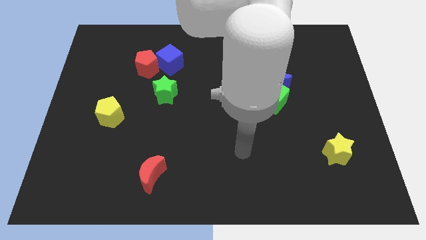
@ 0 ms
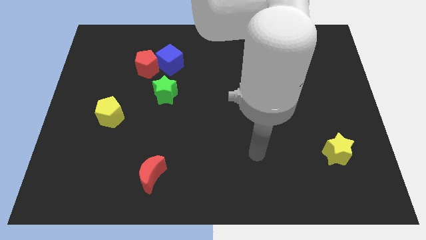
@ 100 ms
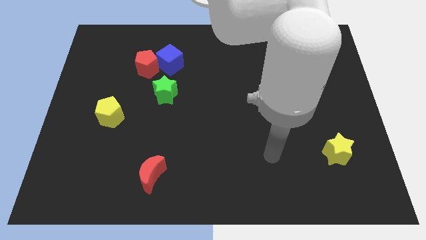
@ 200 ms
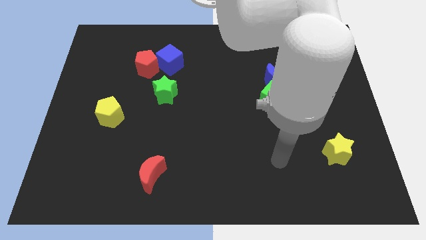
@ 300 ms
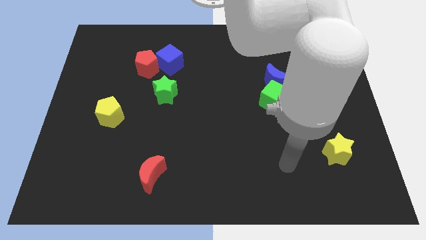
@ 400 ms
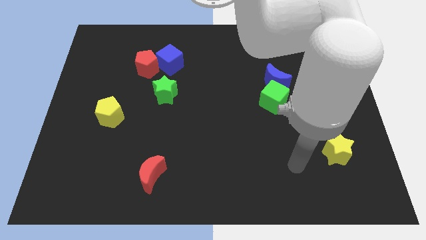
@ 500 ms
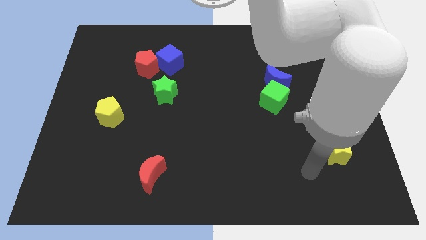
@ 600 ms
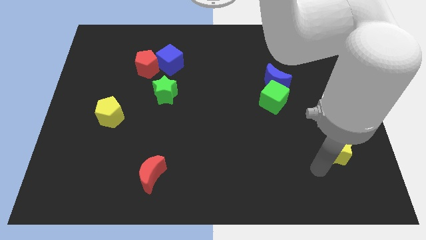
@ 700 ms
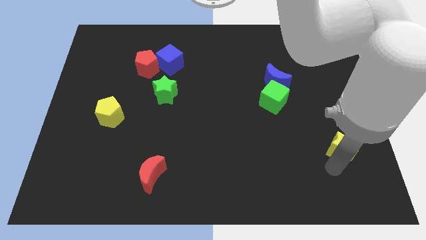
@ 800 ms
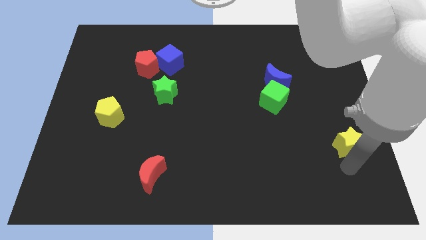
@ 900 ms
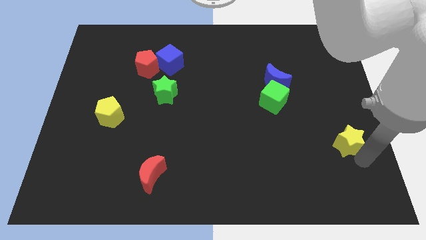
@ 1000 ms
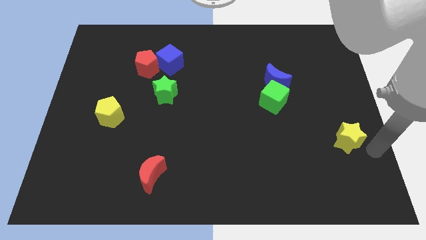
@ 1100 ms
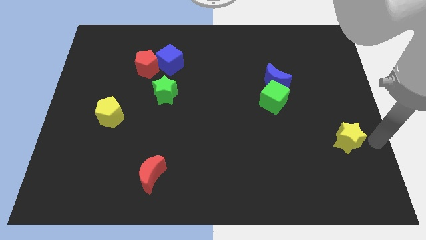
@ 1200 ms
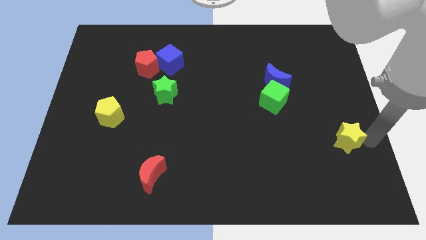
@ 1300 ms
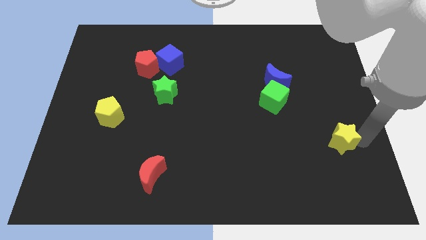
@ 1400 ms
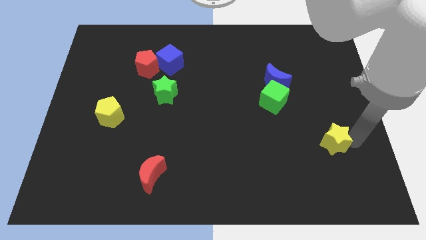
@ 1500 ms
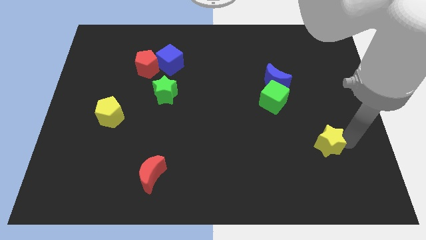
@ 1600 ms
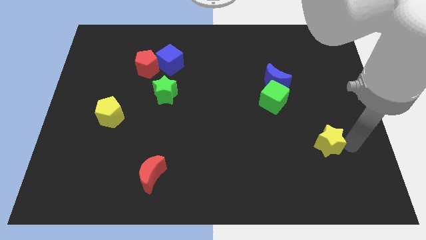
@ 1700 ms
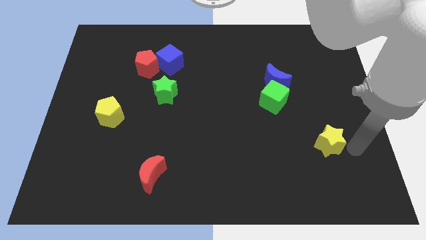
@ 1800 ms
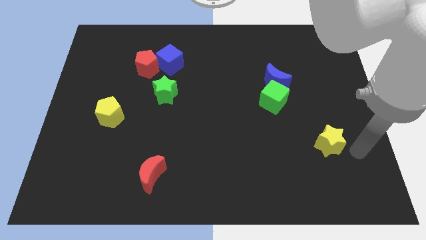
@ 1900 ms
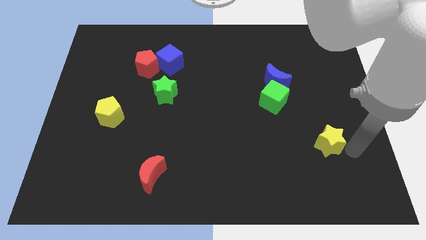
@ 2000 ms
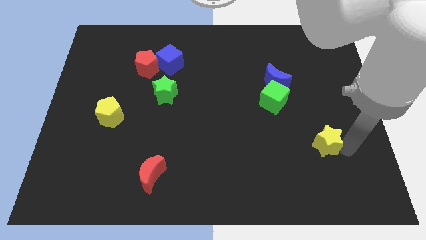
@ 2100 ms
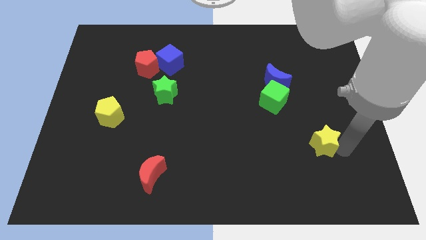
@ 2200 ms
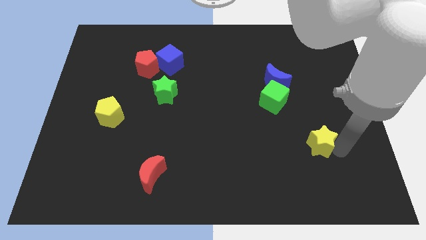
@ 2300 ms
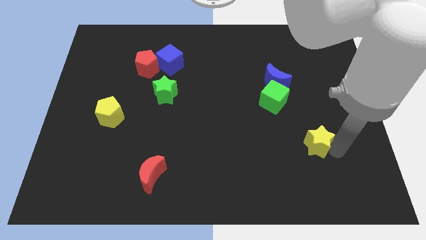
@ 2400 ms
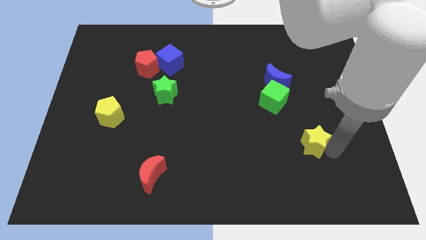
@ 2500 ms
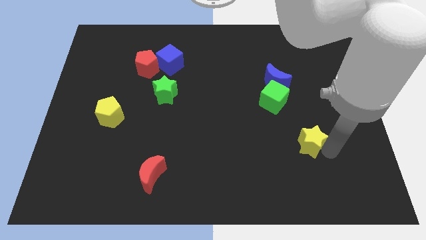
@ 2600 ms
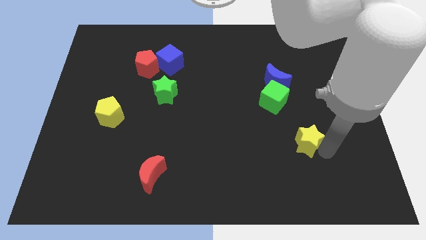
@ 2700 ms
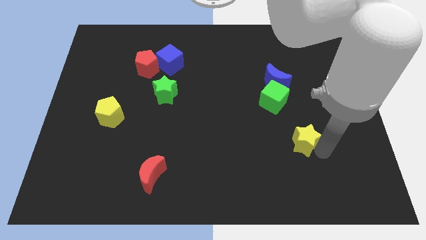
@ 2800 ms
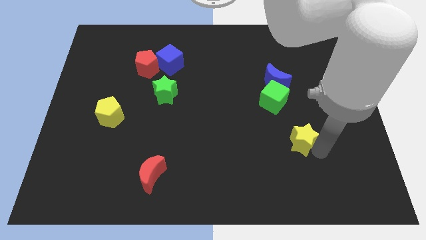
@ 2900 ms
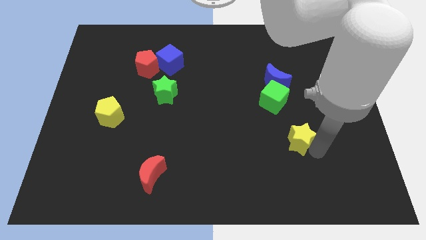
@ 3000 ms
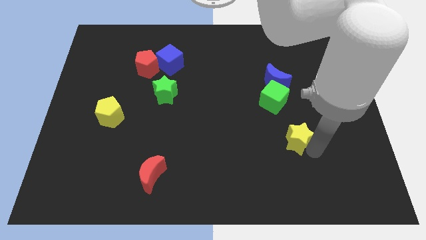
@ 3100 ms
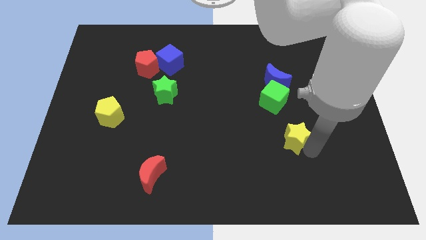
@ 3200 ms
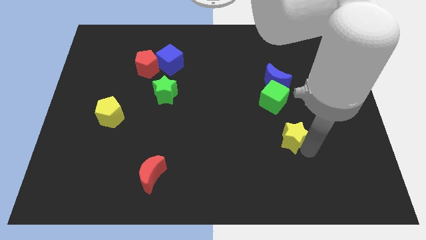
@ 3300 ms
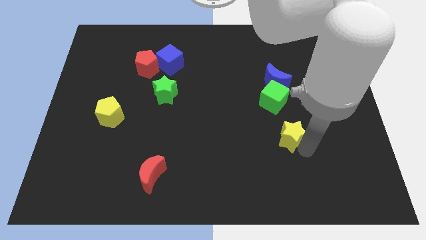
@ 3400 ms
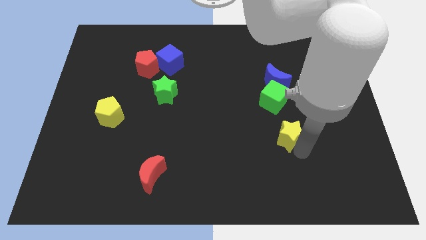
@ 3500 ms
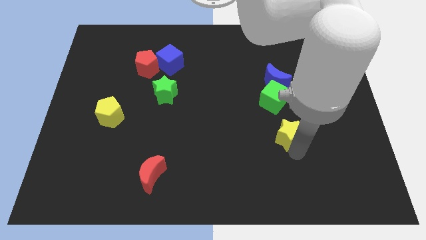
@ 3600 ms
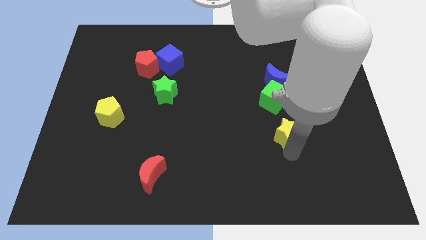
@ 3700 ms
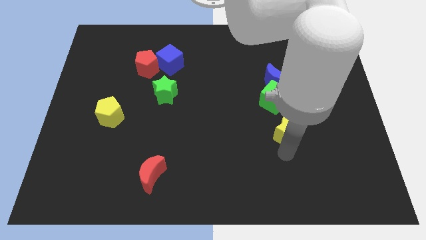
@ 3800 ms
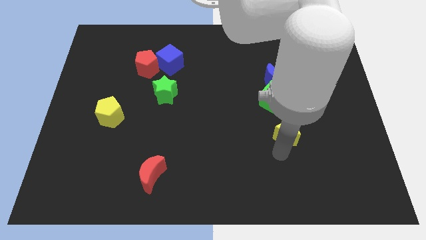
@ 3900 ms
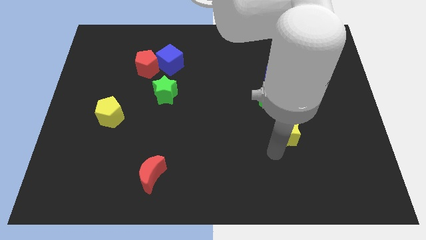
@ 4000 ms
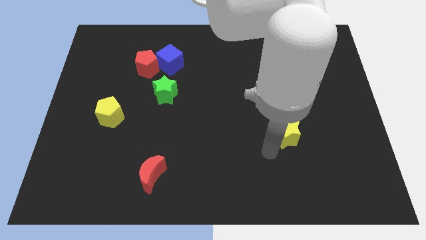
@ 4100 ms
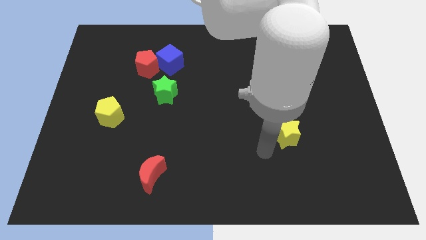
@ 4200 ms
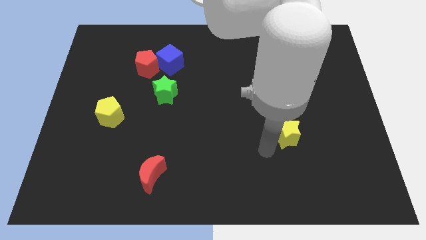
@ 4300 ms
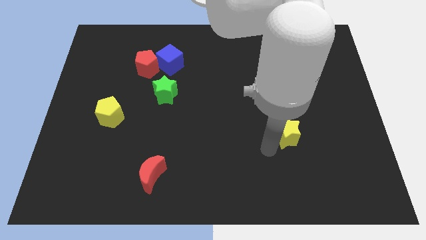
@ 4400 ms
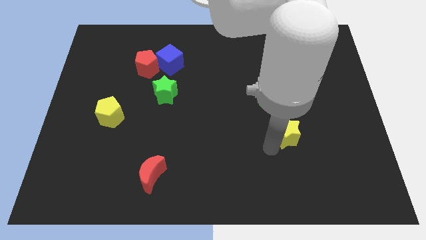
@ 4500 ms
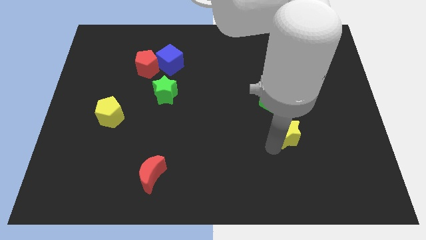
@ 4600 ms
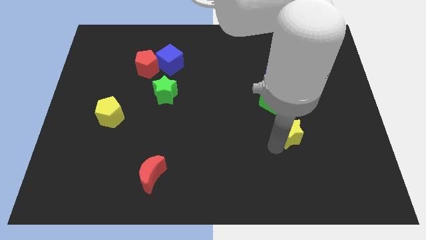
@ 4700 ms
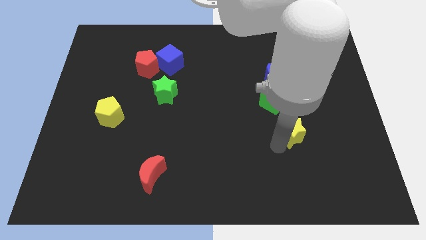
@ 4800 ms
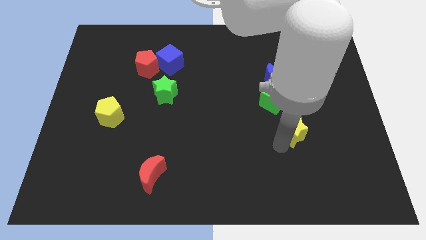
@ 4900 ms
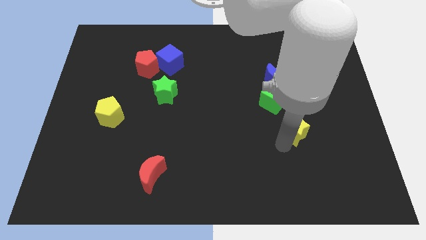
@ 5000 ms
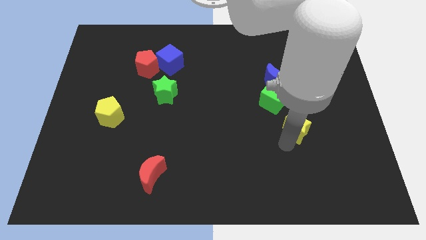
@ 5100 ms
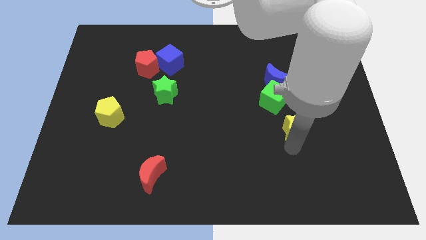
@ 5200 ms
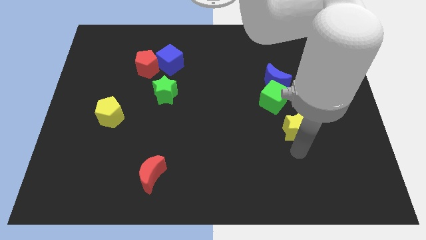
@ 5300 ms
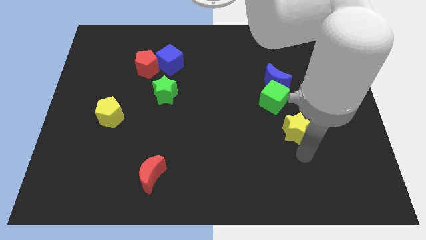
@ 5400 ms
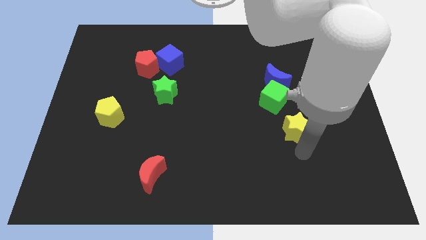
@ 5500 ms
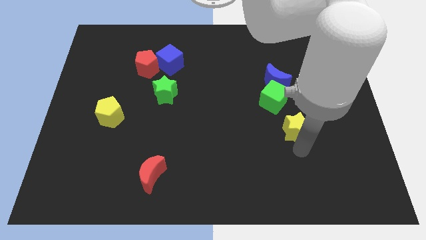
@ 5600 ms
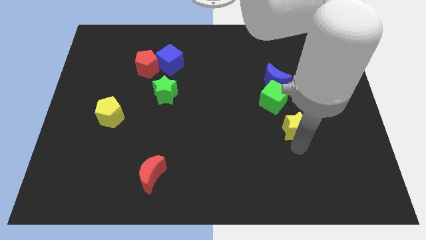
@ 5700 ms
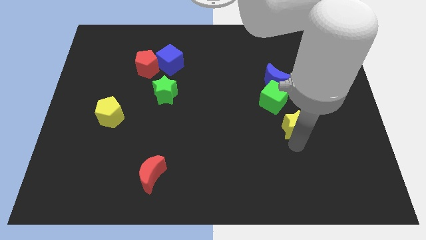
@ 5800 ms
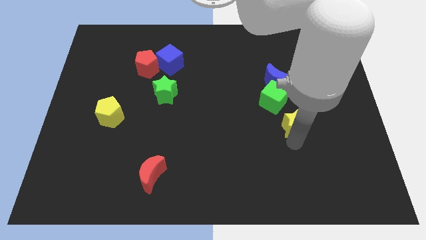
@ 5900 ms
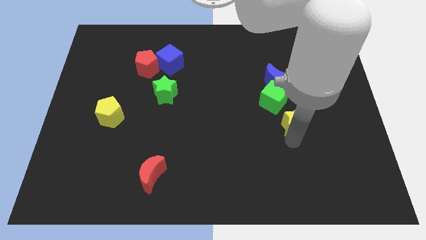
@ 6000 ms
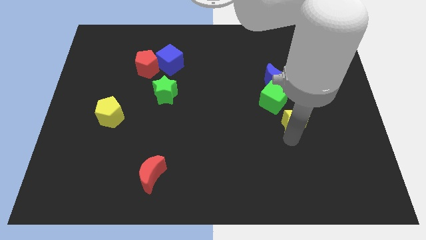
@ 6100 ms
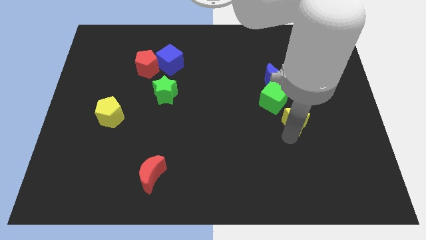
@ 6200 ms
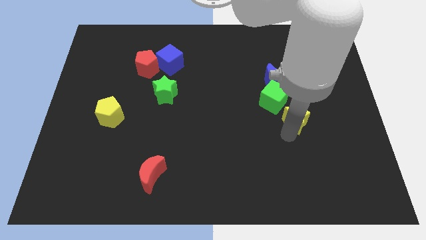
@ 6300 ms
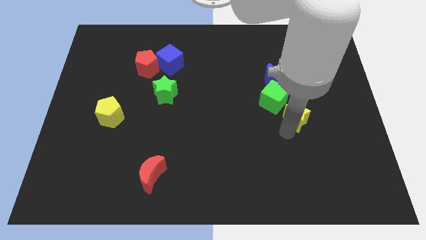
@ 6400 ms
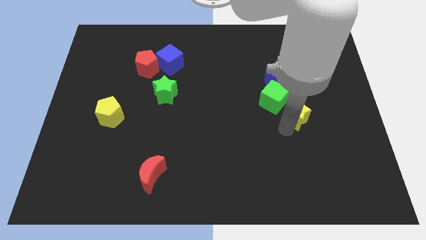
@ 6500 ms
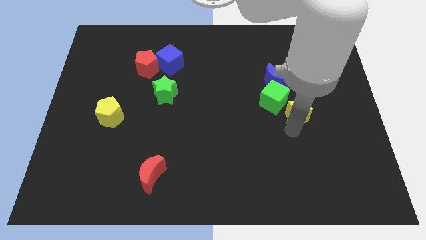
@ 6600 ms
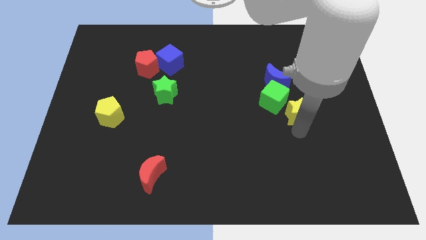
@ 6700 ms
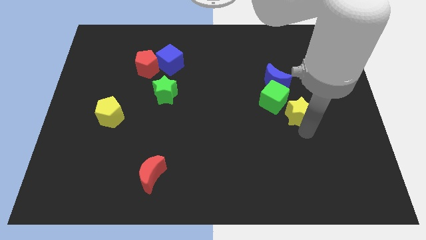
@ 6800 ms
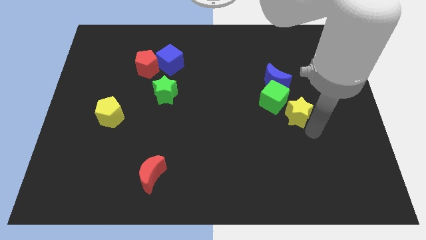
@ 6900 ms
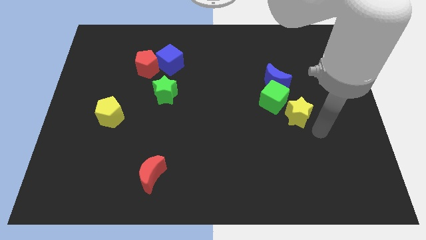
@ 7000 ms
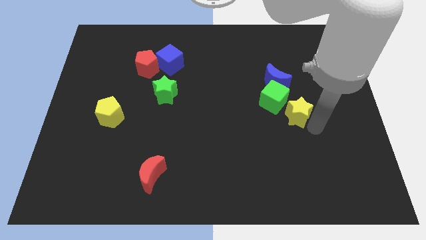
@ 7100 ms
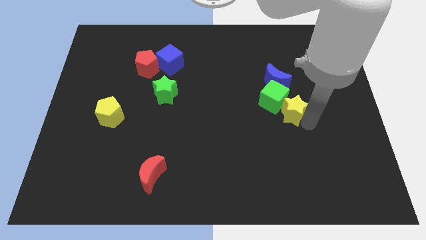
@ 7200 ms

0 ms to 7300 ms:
move the yellow star next to the green cube
